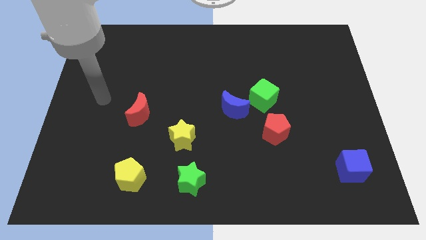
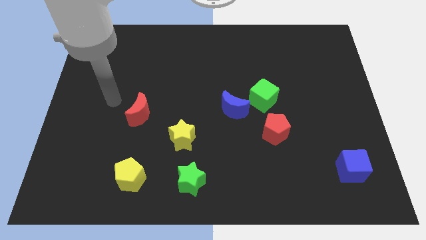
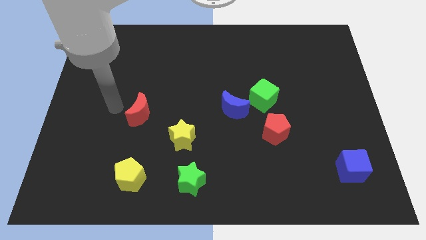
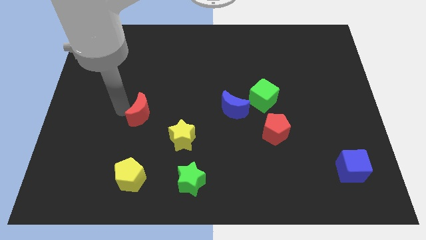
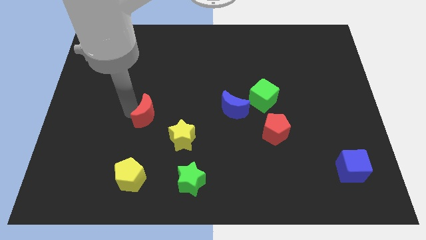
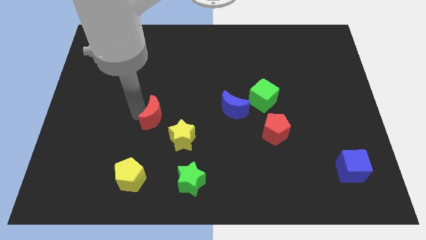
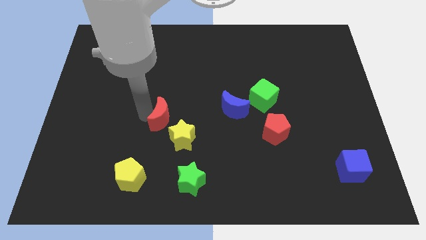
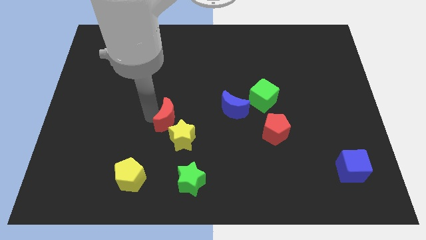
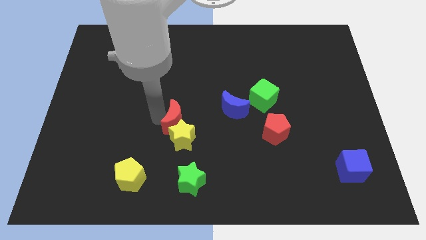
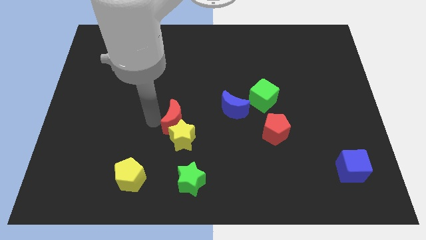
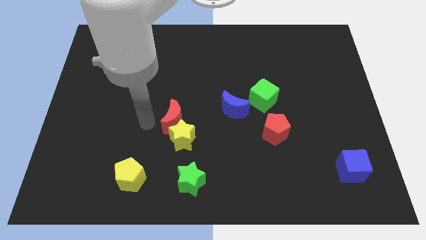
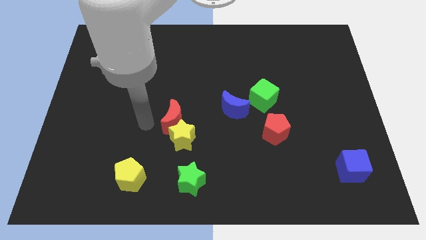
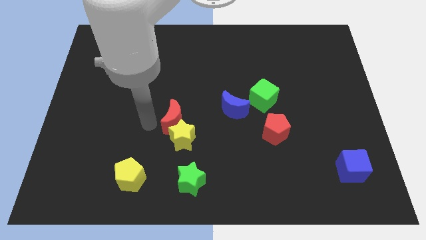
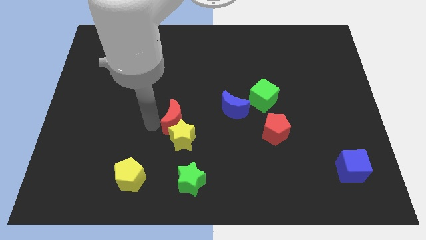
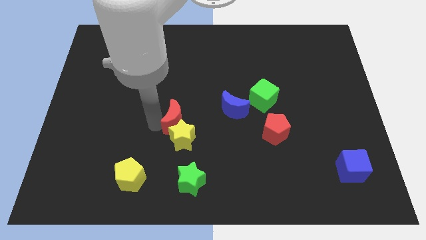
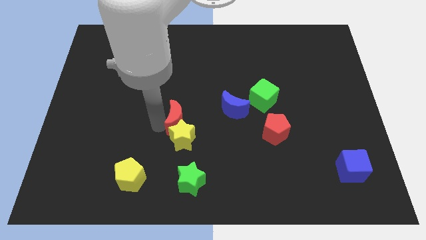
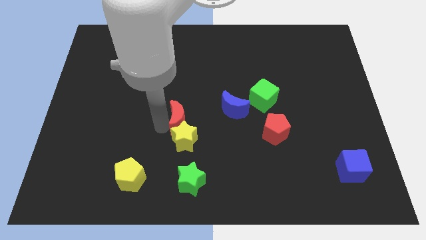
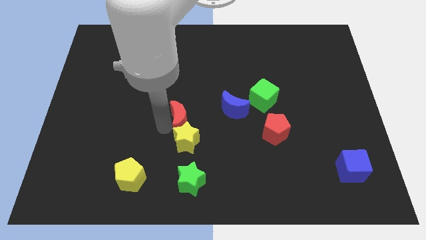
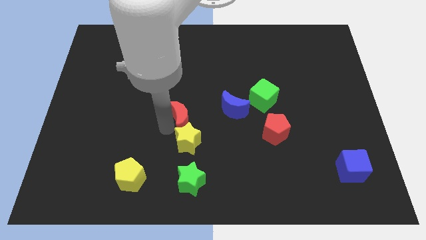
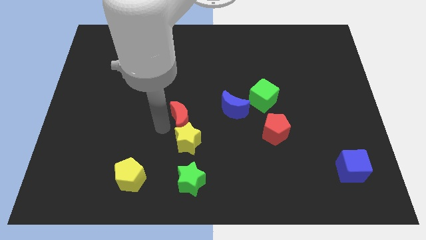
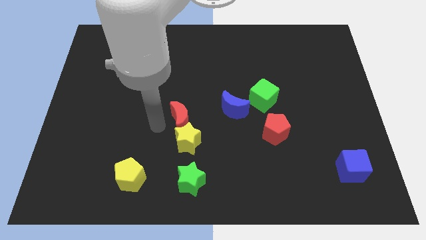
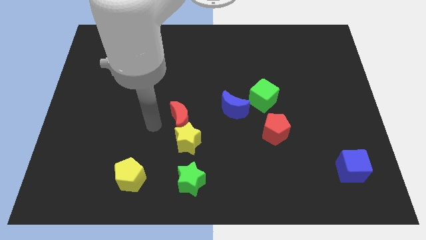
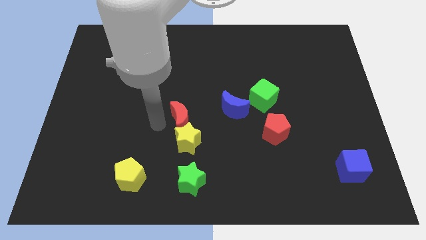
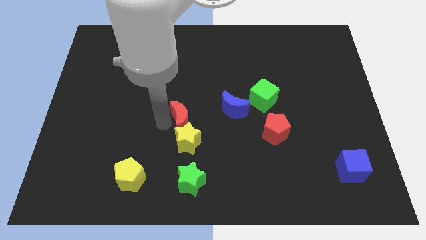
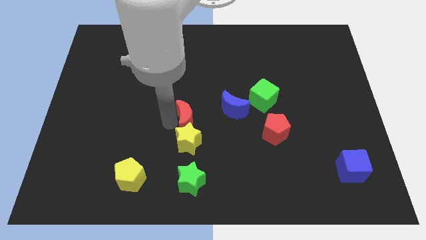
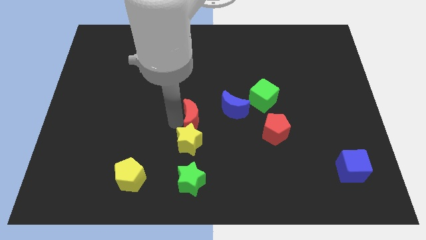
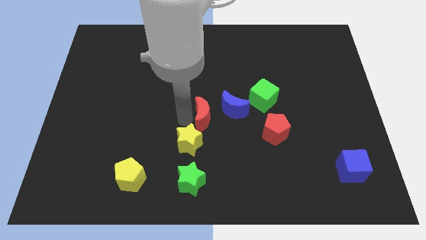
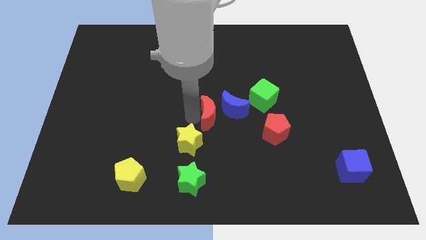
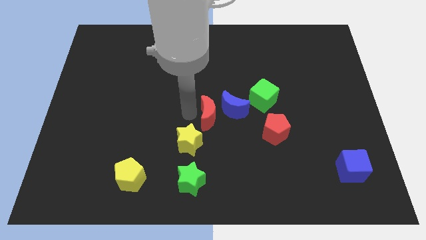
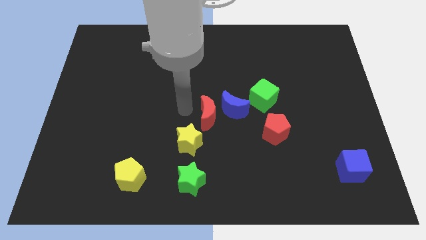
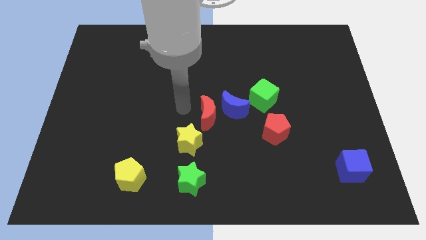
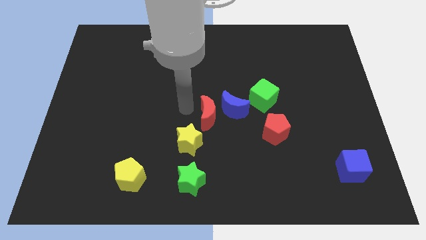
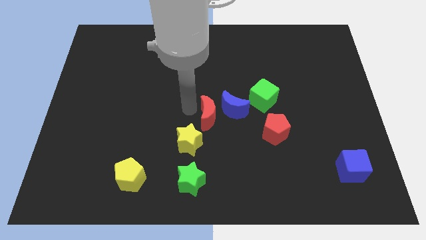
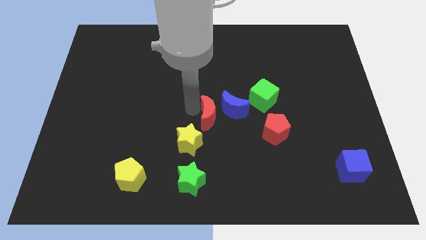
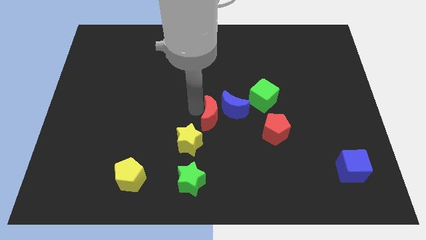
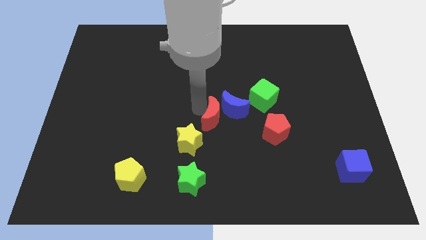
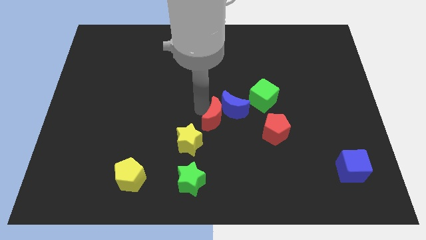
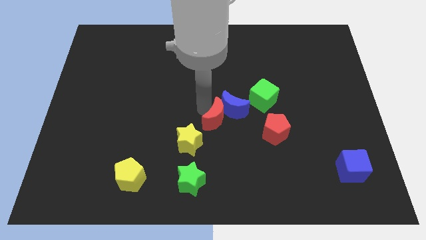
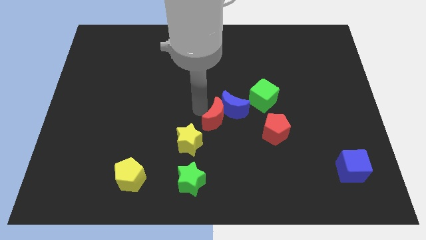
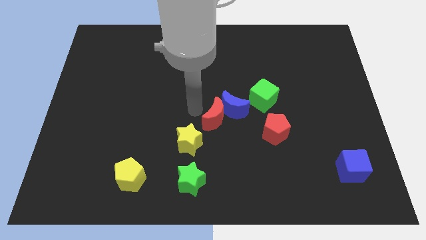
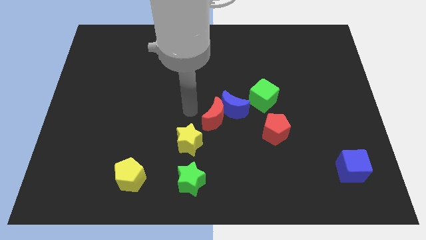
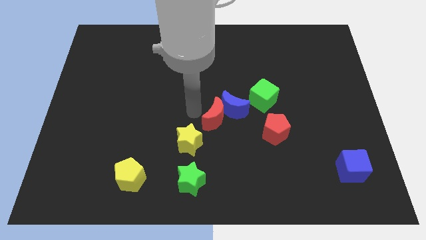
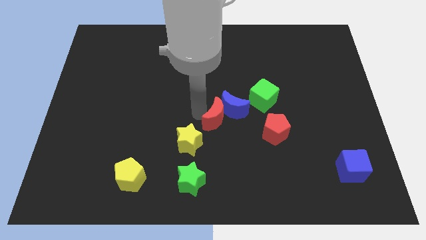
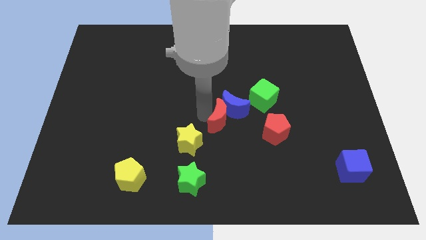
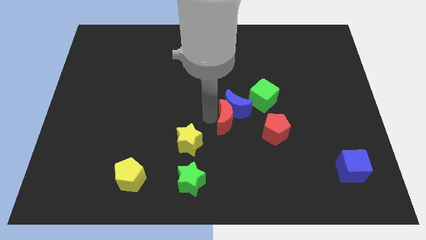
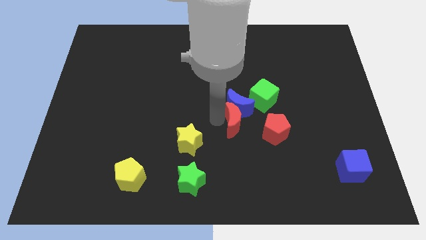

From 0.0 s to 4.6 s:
push the red moon right

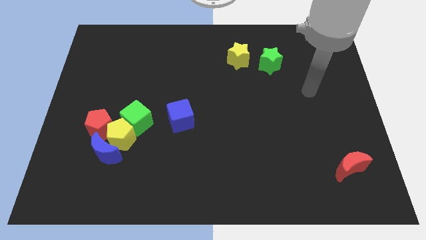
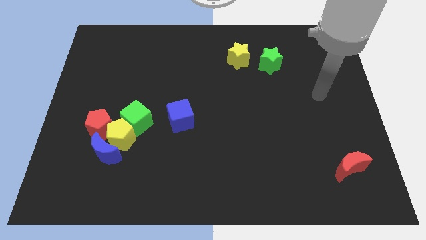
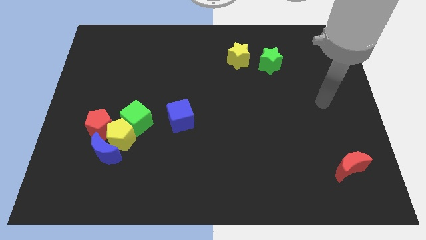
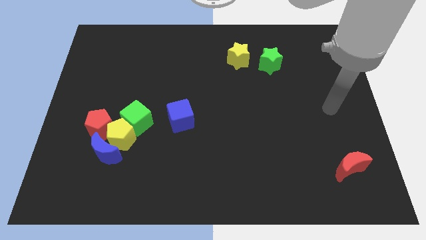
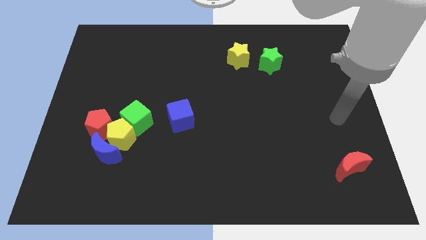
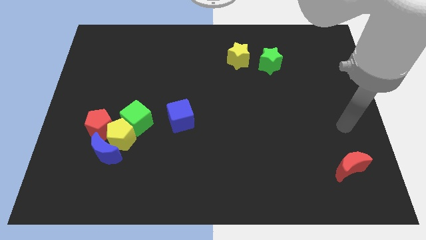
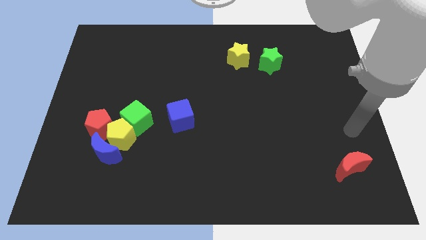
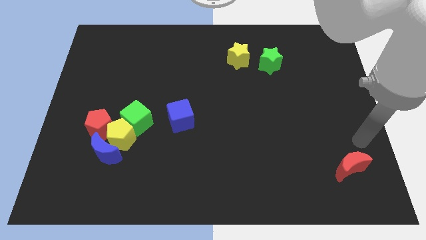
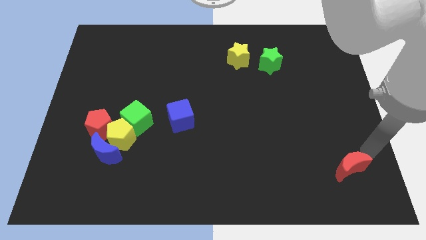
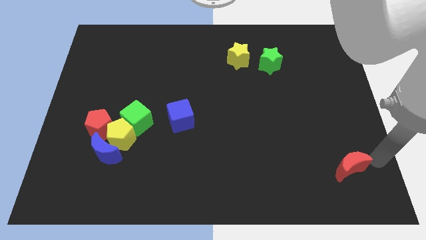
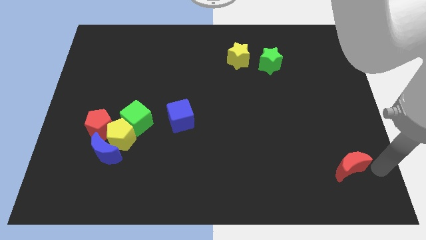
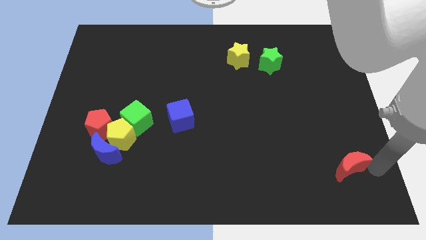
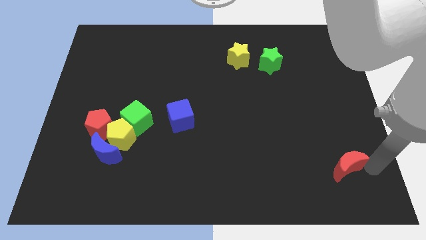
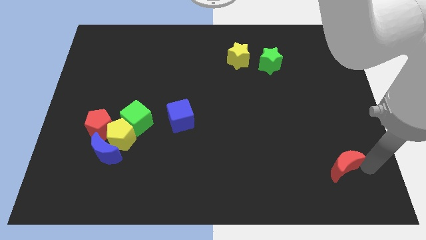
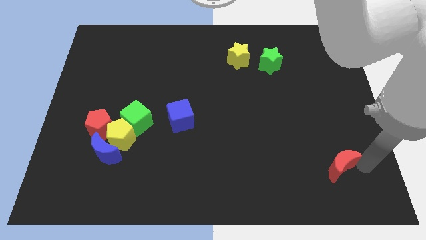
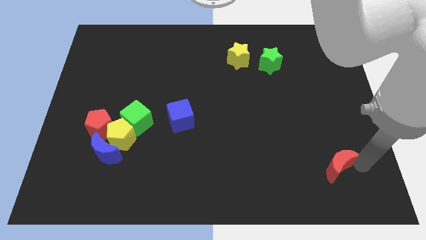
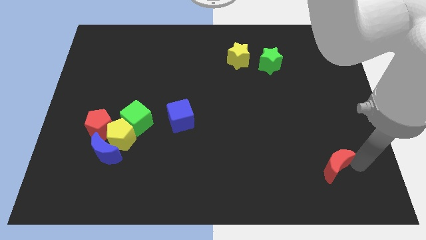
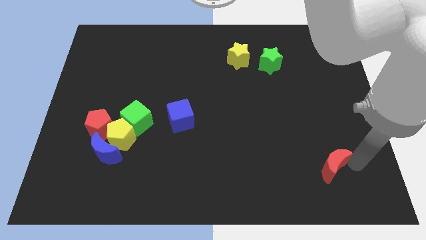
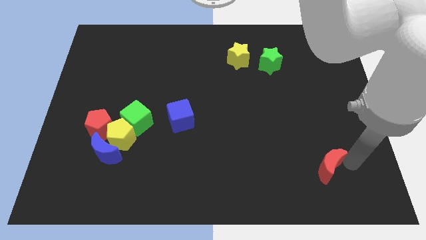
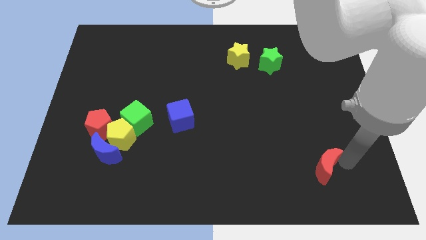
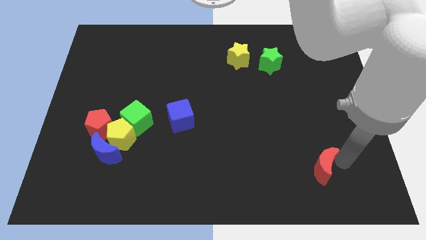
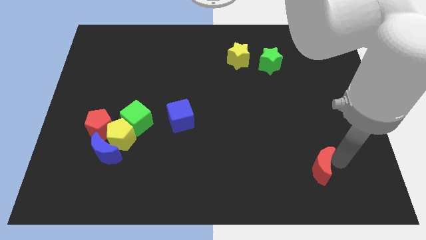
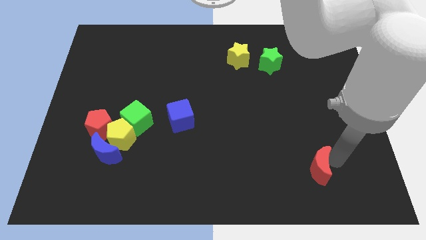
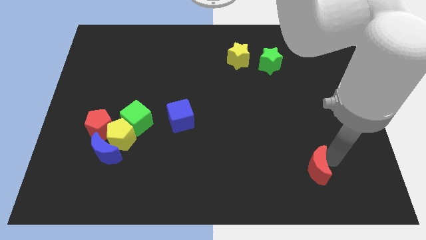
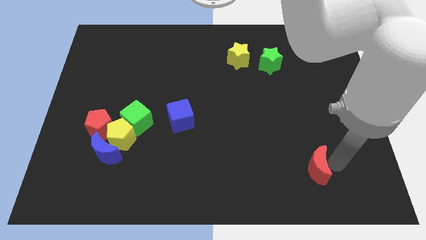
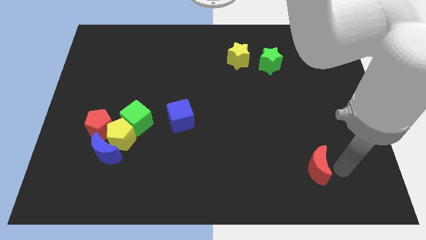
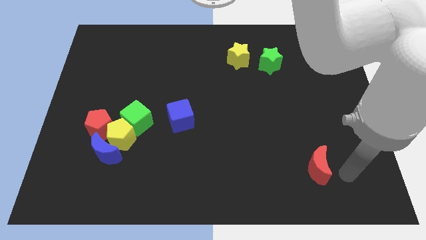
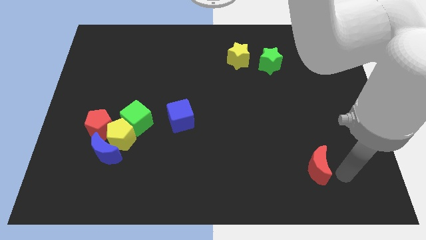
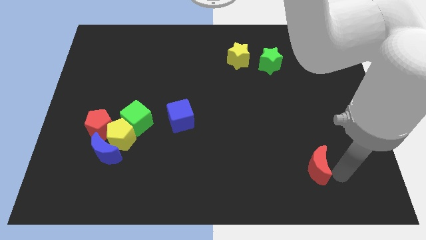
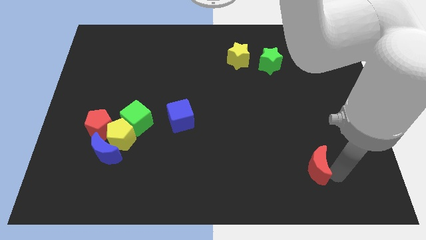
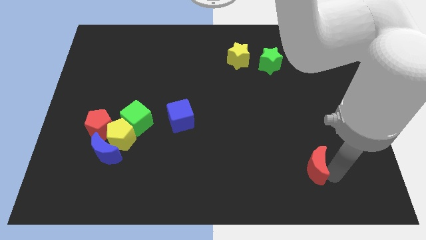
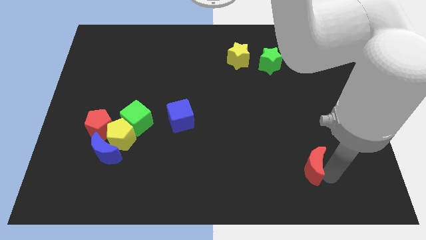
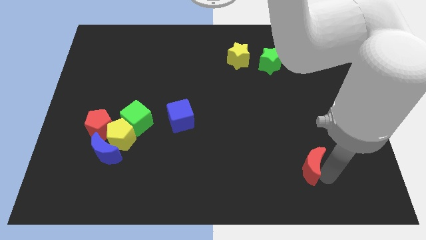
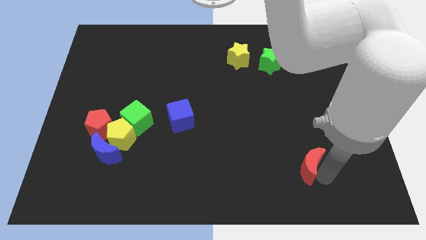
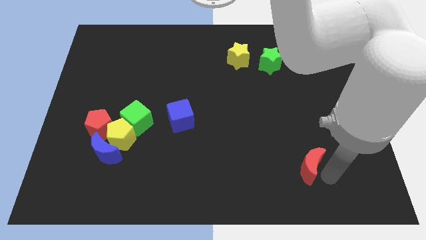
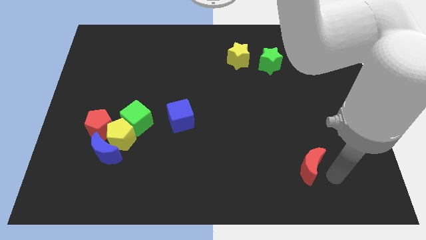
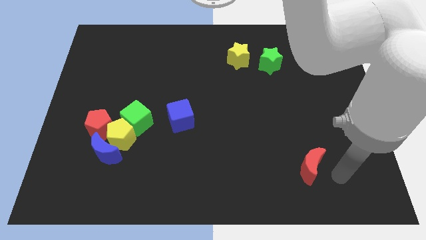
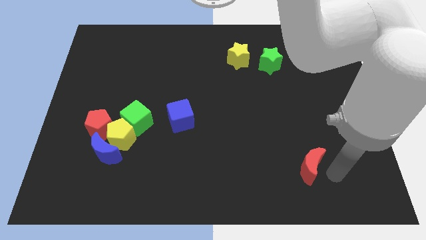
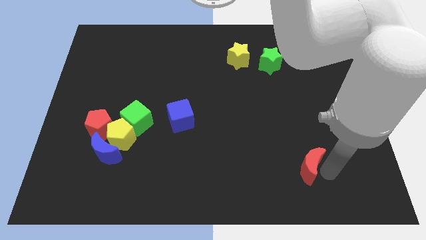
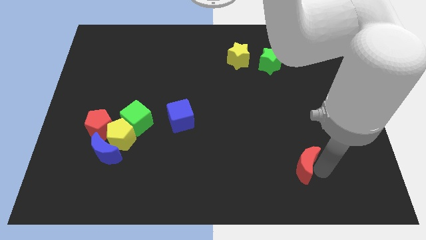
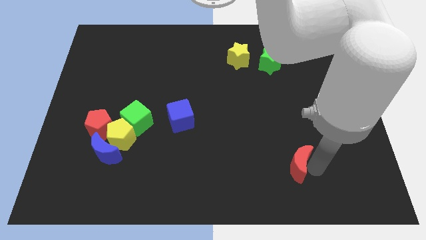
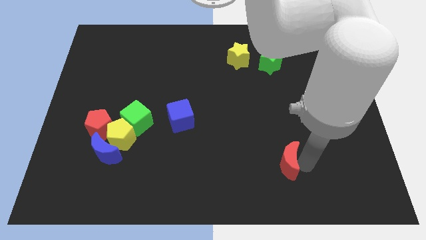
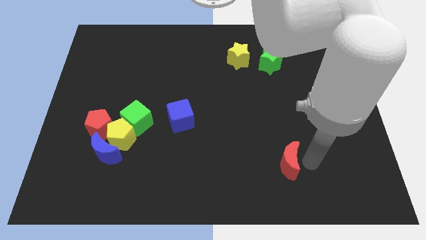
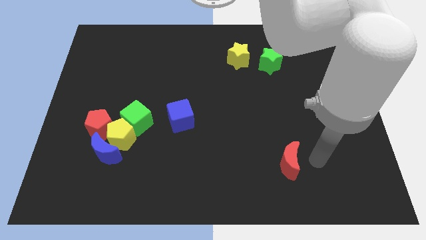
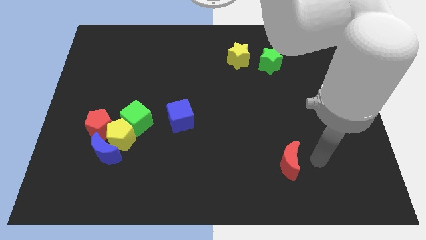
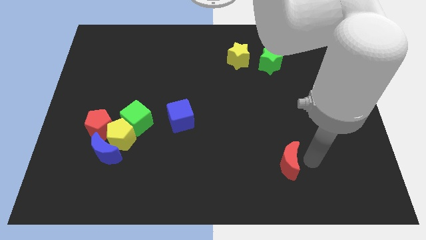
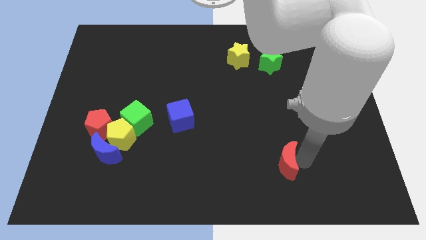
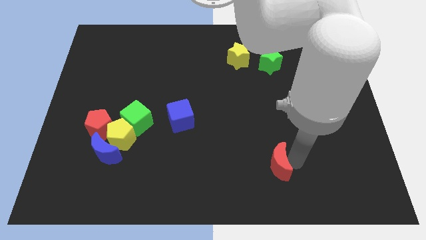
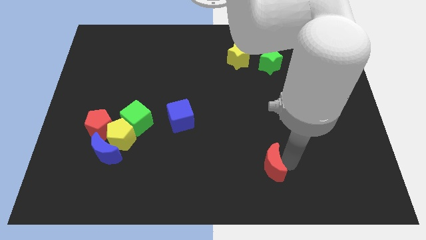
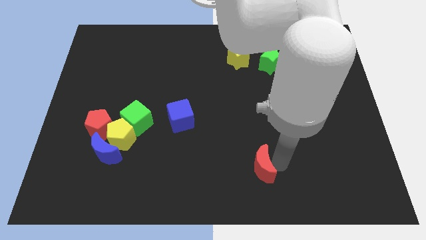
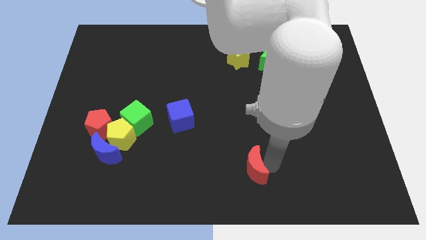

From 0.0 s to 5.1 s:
slide the red moon to the left
